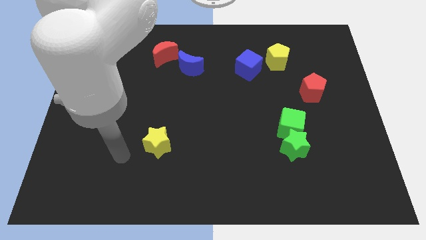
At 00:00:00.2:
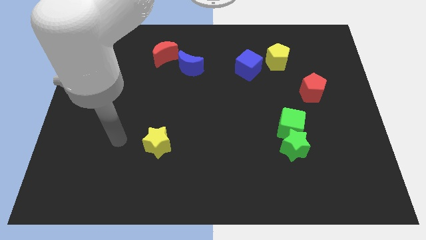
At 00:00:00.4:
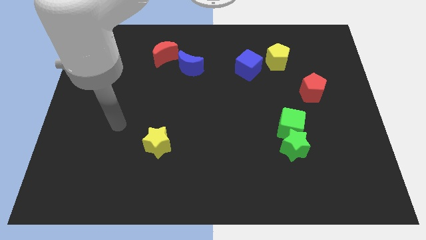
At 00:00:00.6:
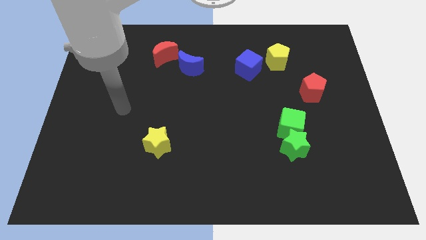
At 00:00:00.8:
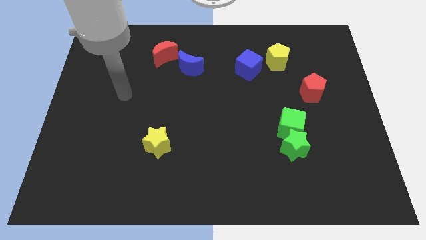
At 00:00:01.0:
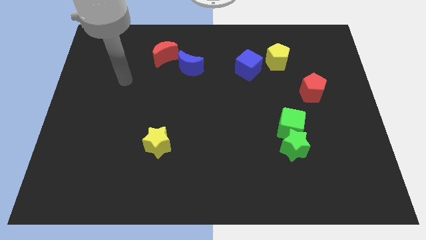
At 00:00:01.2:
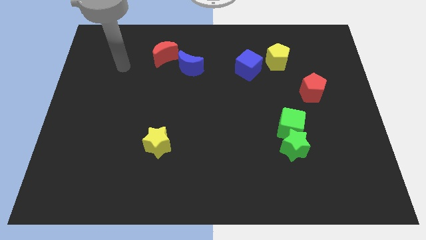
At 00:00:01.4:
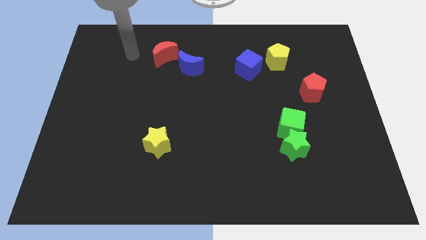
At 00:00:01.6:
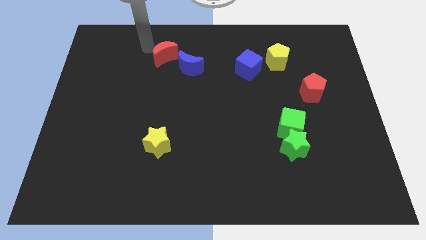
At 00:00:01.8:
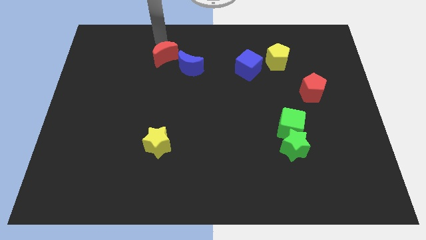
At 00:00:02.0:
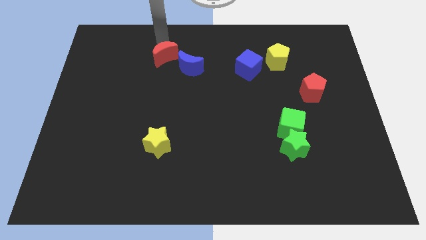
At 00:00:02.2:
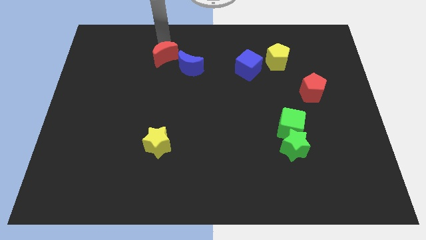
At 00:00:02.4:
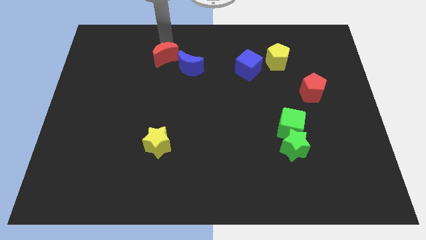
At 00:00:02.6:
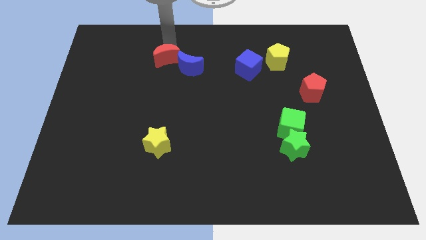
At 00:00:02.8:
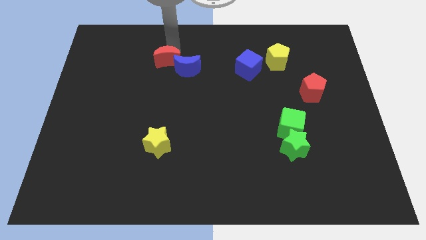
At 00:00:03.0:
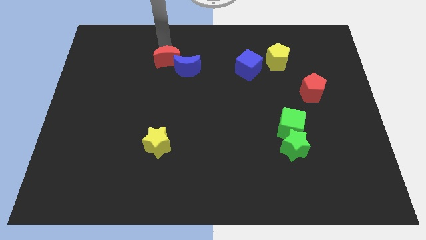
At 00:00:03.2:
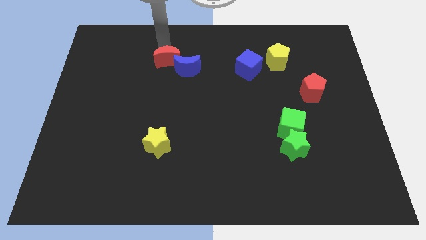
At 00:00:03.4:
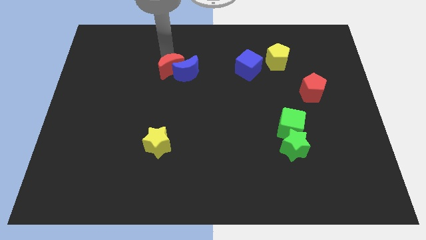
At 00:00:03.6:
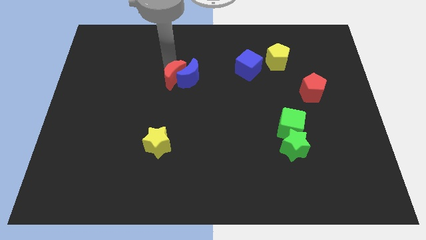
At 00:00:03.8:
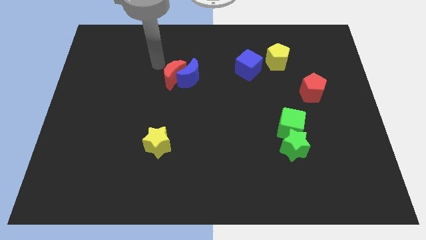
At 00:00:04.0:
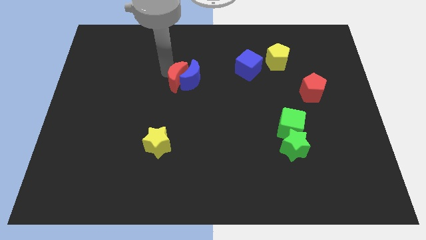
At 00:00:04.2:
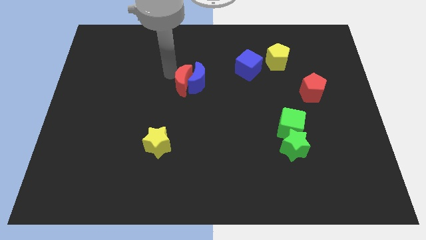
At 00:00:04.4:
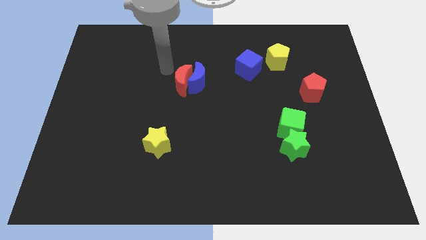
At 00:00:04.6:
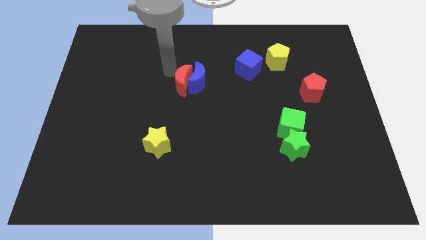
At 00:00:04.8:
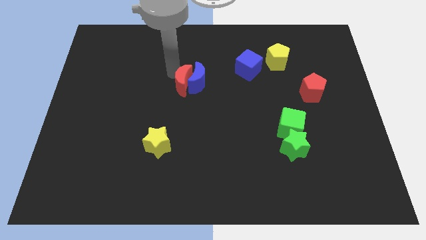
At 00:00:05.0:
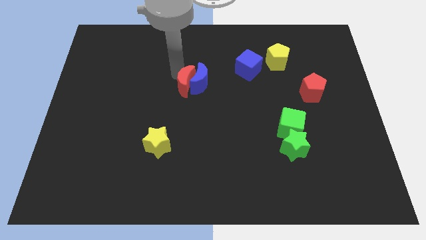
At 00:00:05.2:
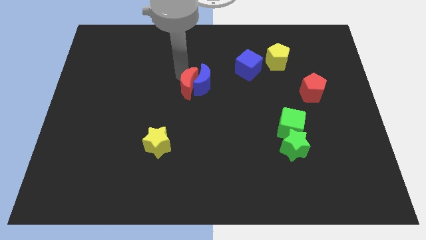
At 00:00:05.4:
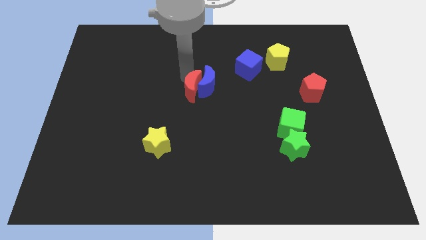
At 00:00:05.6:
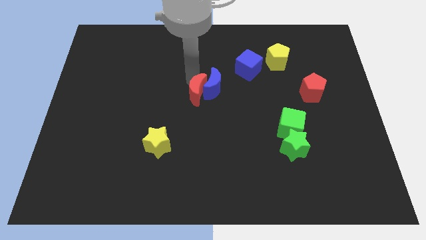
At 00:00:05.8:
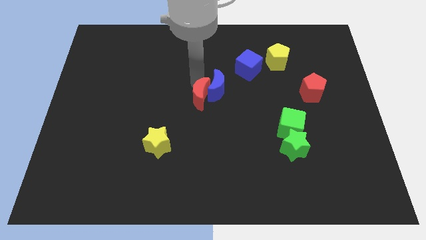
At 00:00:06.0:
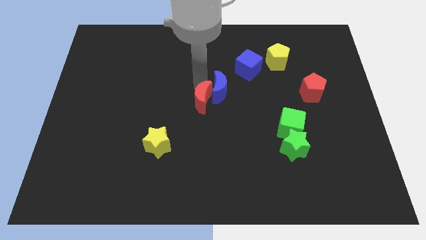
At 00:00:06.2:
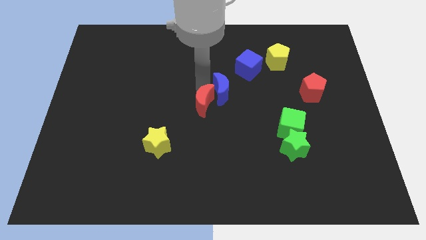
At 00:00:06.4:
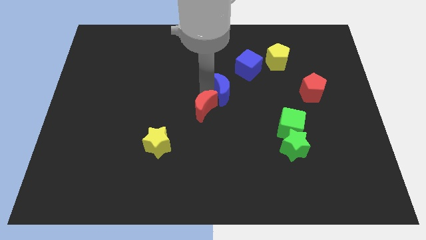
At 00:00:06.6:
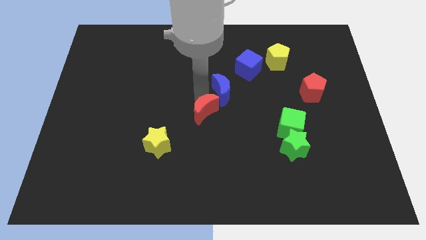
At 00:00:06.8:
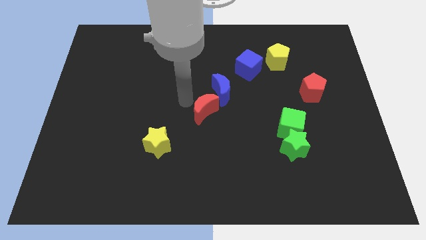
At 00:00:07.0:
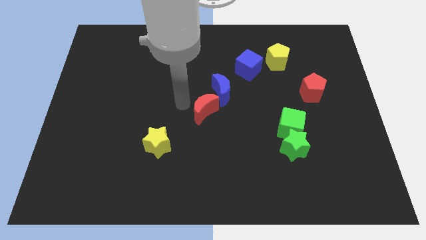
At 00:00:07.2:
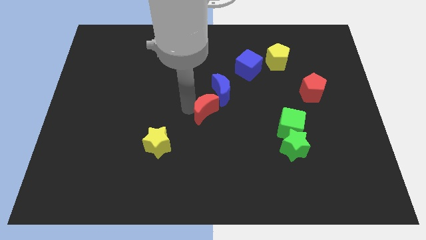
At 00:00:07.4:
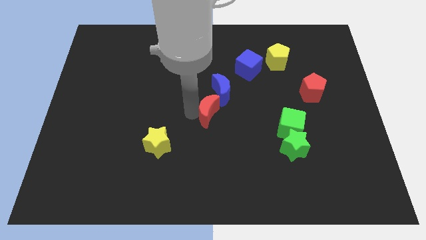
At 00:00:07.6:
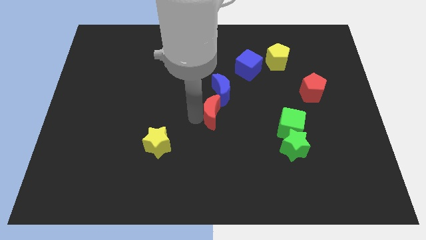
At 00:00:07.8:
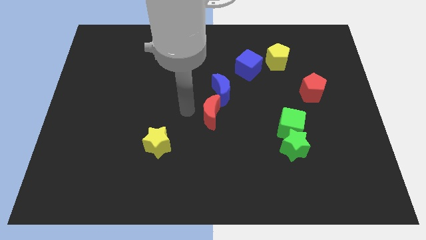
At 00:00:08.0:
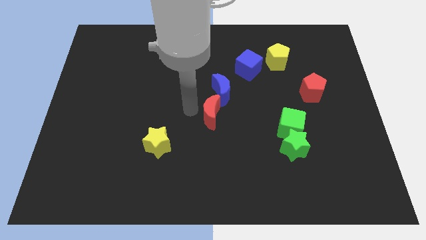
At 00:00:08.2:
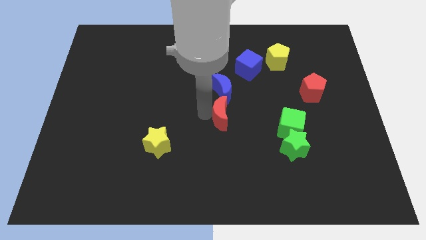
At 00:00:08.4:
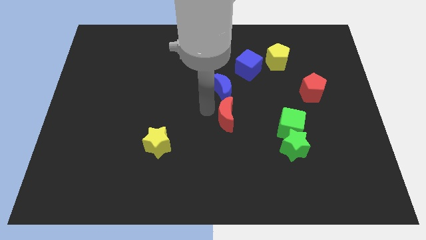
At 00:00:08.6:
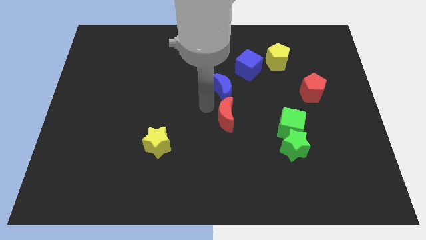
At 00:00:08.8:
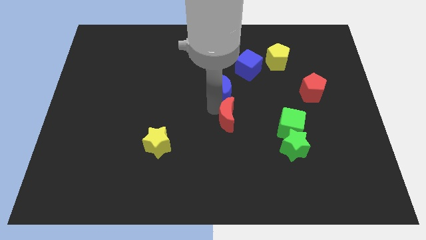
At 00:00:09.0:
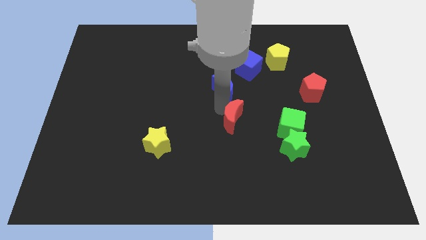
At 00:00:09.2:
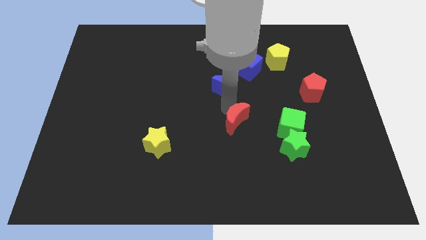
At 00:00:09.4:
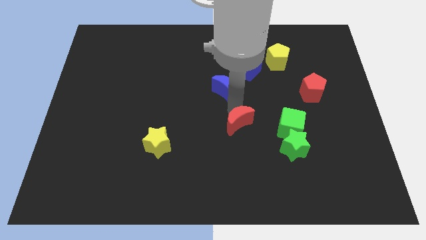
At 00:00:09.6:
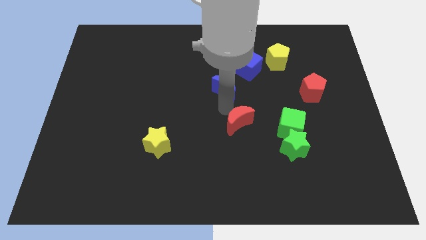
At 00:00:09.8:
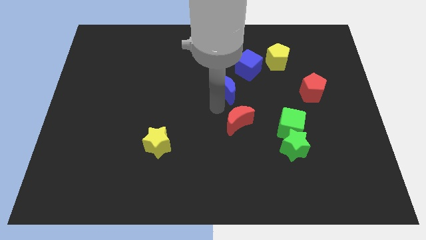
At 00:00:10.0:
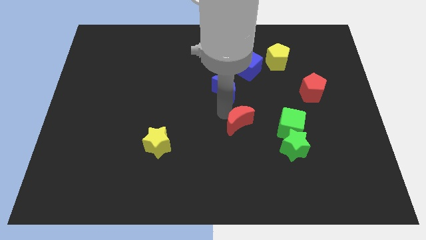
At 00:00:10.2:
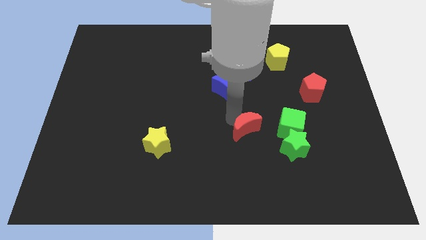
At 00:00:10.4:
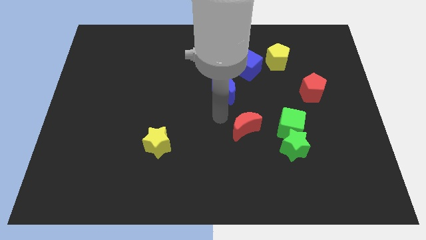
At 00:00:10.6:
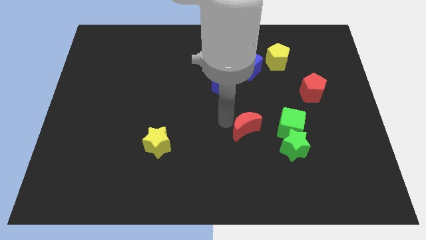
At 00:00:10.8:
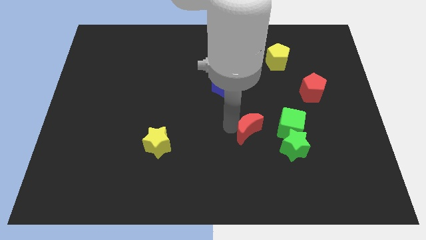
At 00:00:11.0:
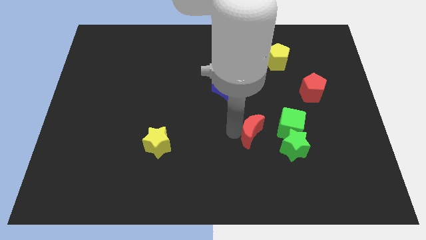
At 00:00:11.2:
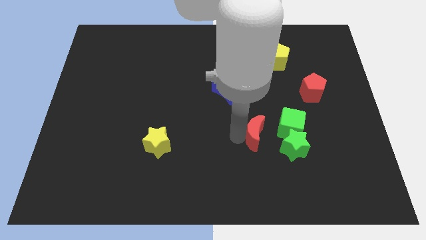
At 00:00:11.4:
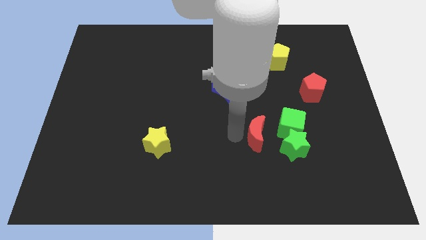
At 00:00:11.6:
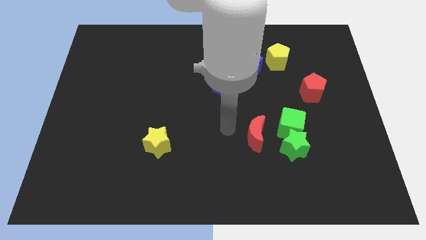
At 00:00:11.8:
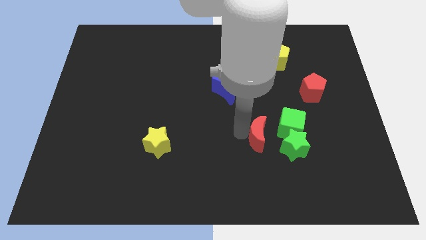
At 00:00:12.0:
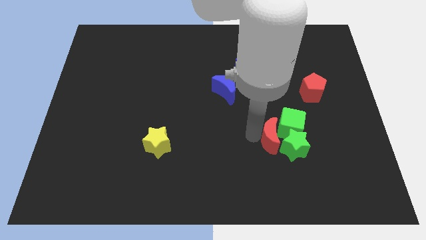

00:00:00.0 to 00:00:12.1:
slide the red moon next to the green star

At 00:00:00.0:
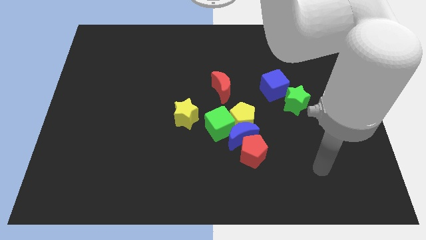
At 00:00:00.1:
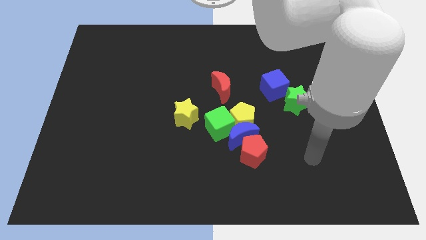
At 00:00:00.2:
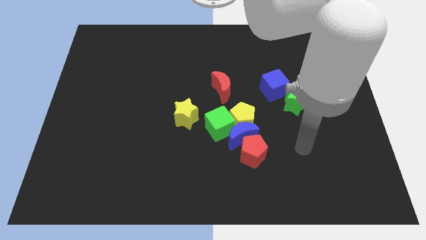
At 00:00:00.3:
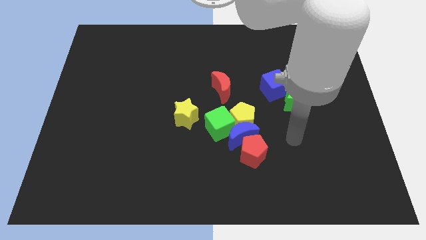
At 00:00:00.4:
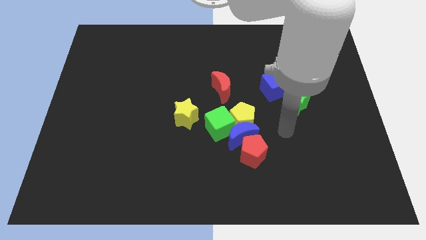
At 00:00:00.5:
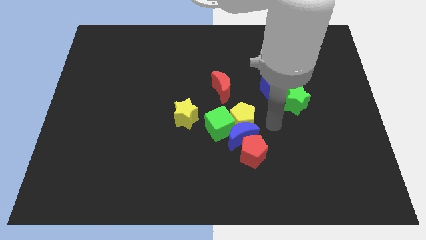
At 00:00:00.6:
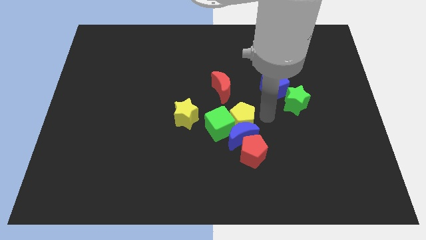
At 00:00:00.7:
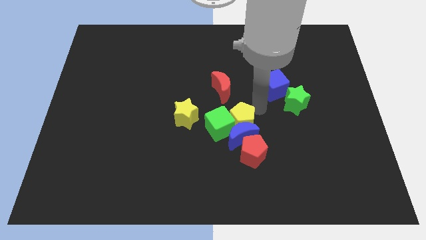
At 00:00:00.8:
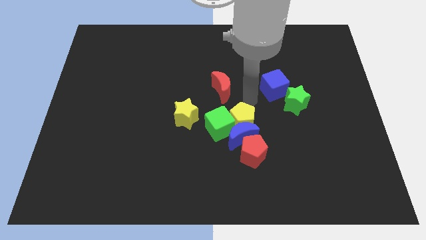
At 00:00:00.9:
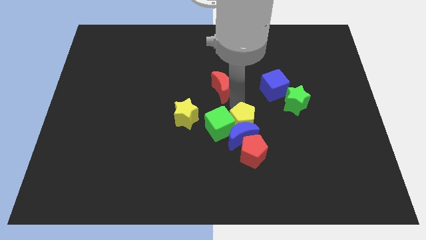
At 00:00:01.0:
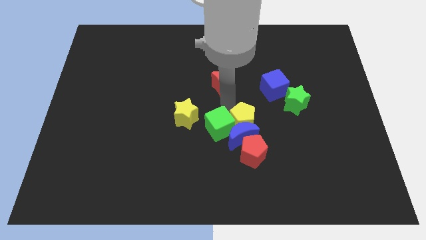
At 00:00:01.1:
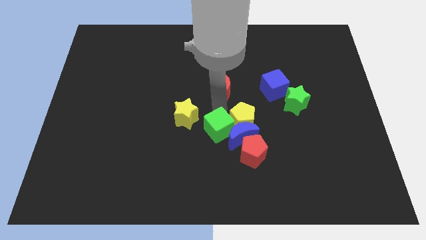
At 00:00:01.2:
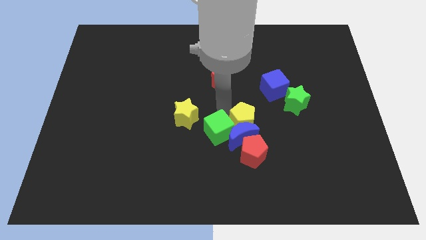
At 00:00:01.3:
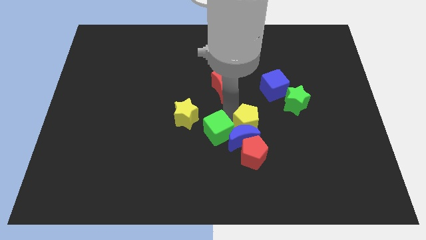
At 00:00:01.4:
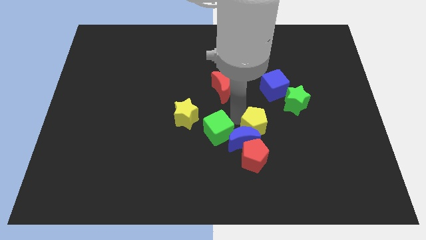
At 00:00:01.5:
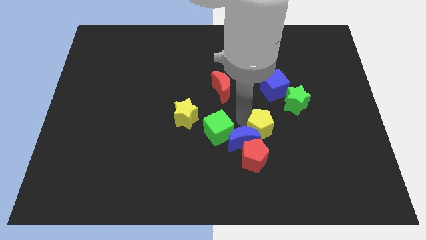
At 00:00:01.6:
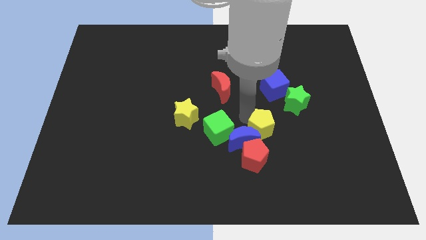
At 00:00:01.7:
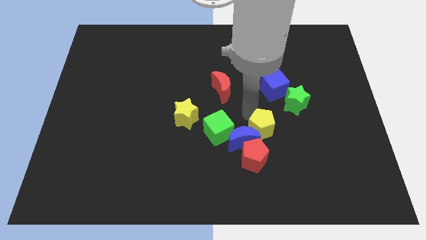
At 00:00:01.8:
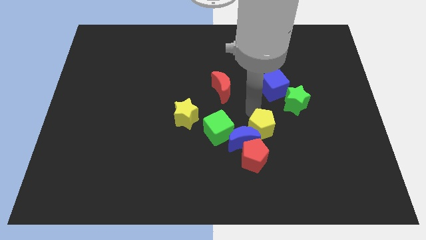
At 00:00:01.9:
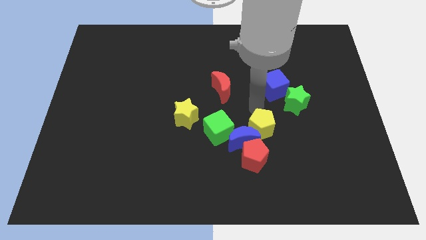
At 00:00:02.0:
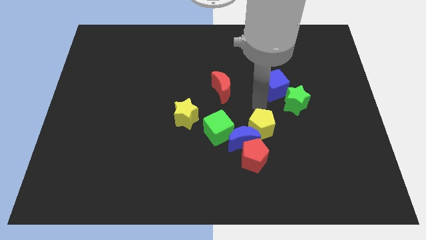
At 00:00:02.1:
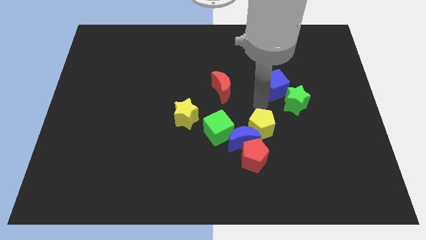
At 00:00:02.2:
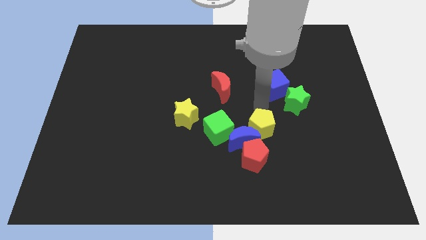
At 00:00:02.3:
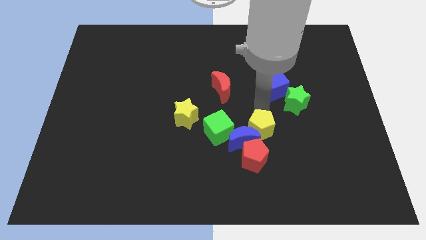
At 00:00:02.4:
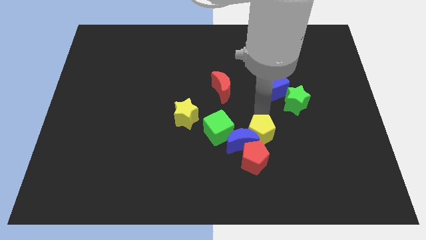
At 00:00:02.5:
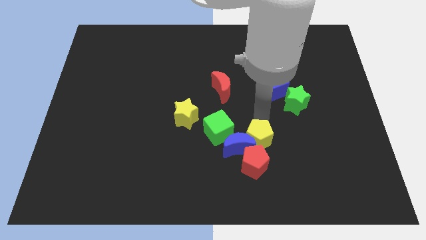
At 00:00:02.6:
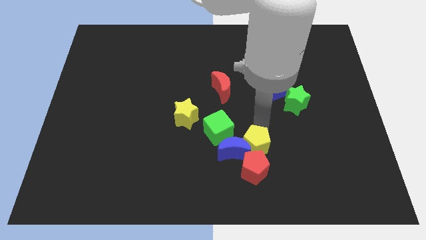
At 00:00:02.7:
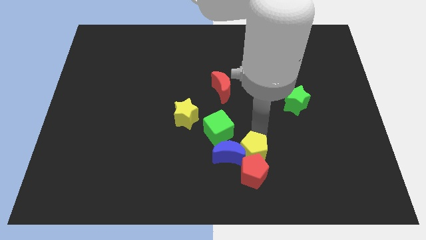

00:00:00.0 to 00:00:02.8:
push the yellow pentagon to the red pentagon
